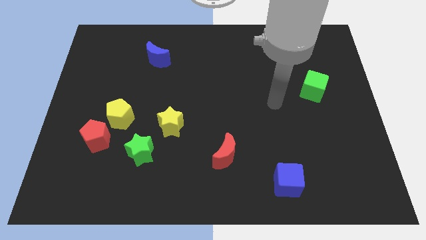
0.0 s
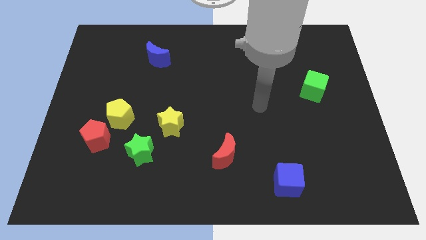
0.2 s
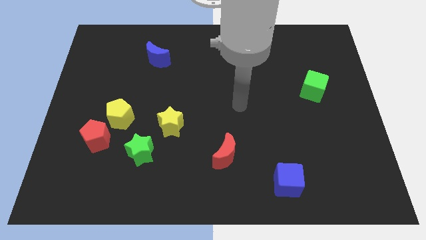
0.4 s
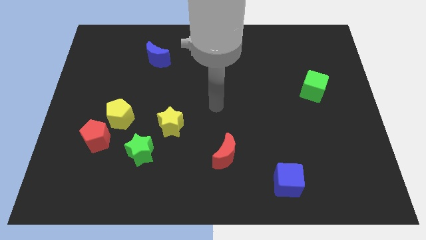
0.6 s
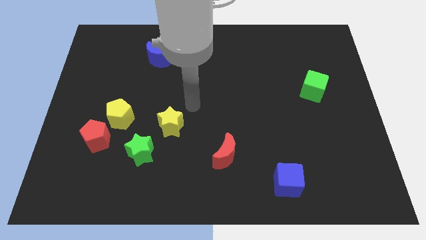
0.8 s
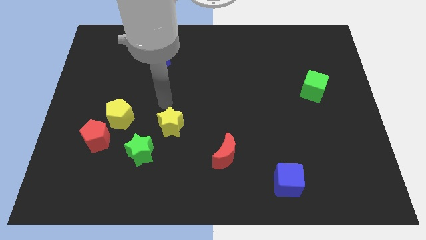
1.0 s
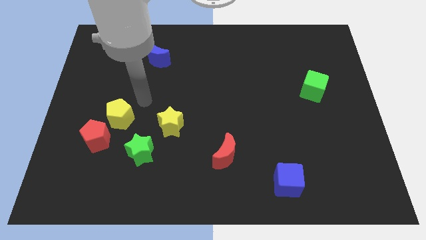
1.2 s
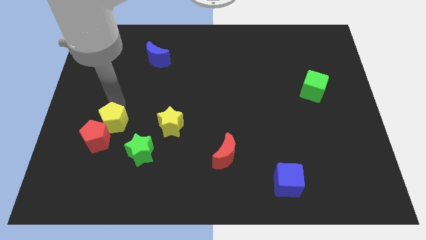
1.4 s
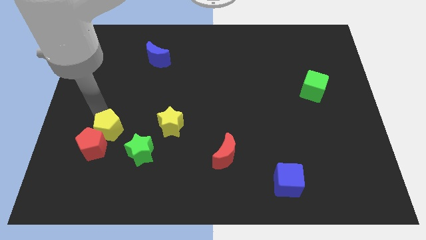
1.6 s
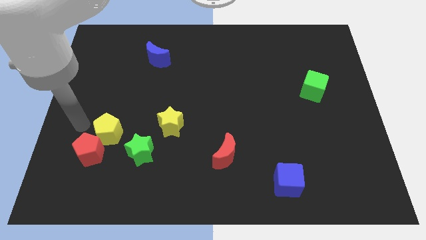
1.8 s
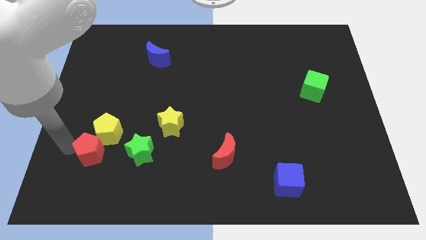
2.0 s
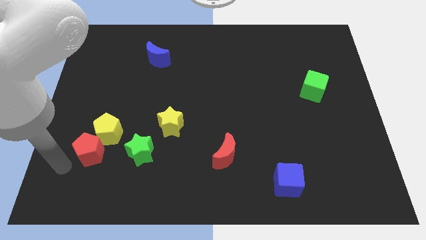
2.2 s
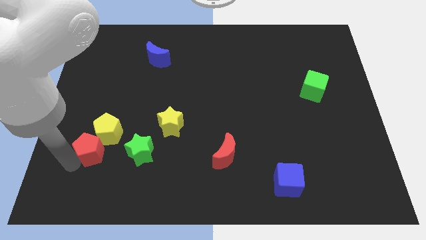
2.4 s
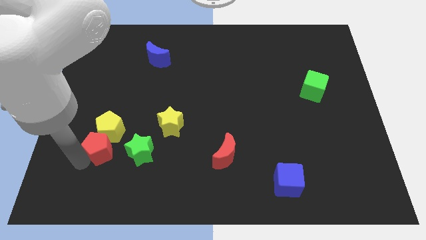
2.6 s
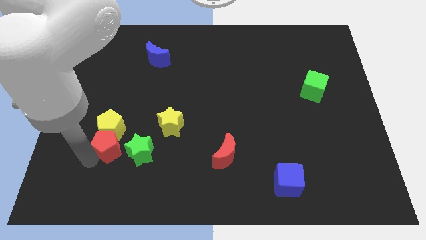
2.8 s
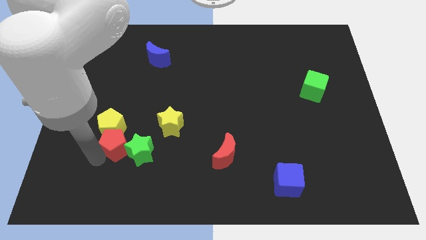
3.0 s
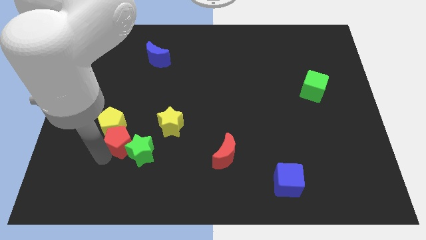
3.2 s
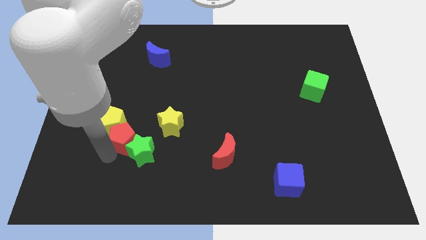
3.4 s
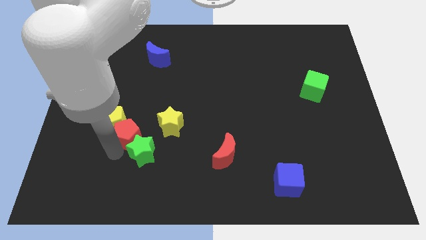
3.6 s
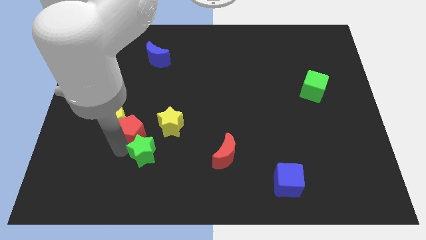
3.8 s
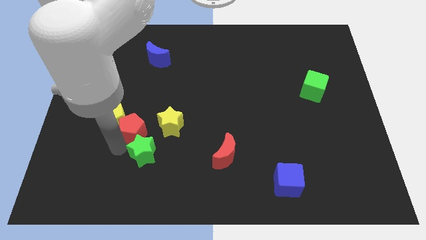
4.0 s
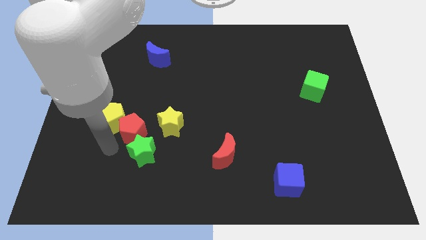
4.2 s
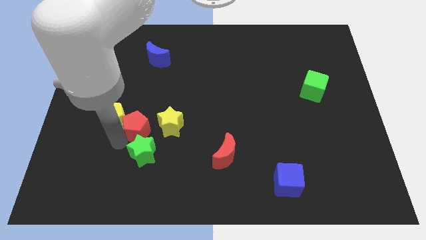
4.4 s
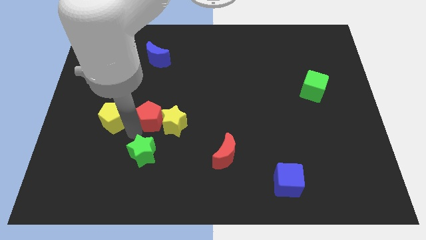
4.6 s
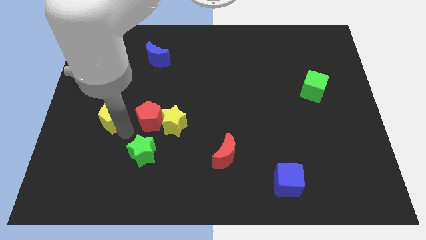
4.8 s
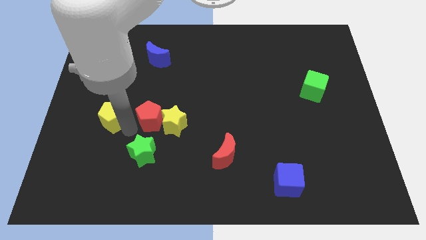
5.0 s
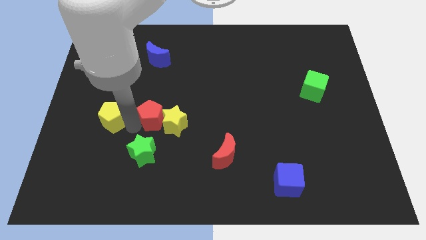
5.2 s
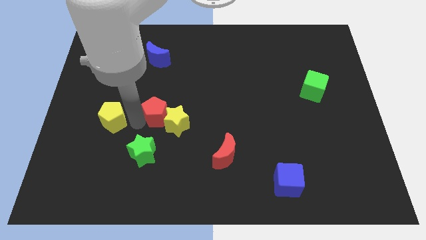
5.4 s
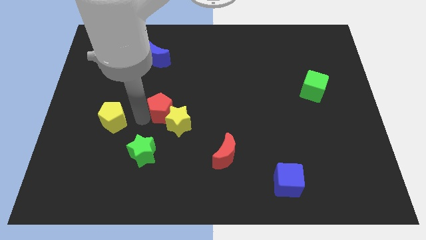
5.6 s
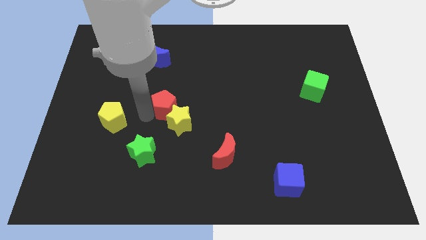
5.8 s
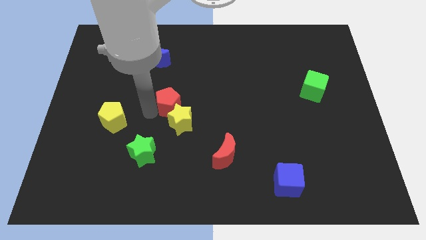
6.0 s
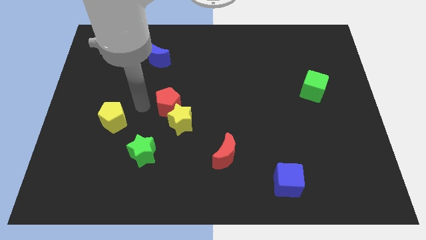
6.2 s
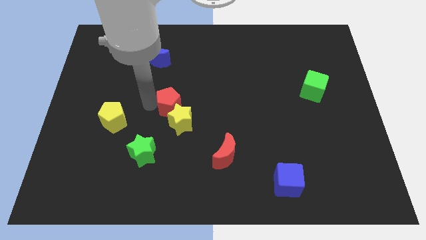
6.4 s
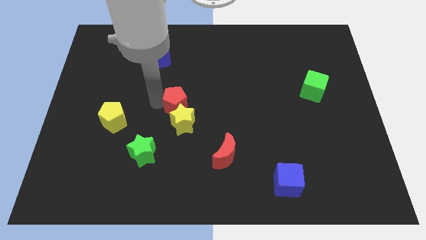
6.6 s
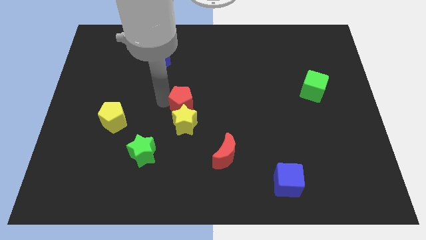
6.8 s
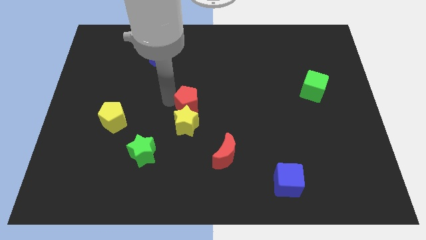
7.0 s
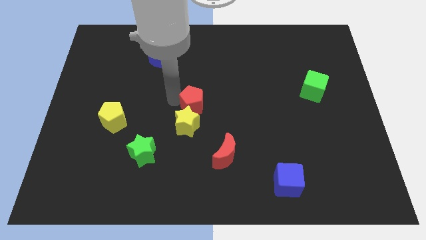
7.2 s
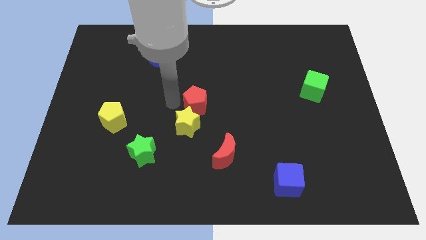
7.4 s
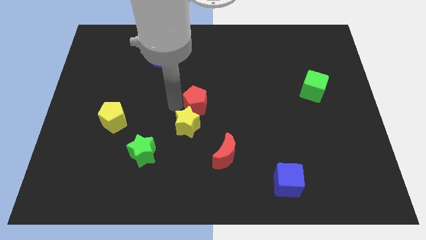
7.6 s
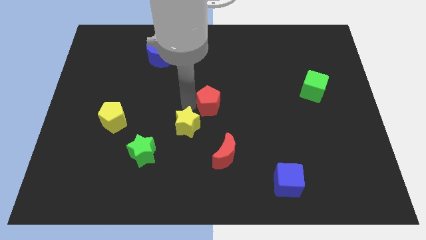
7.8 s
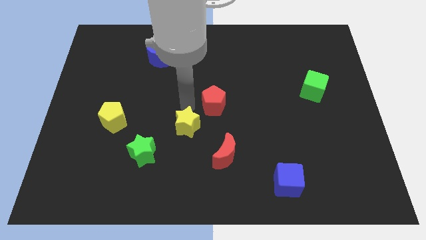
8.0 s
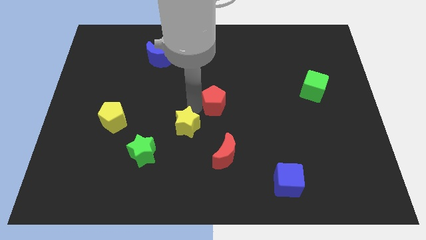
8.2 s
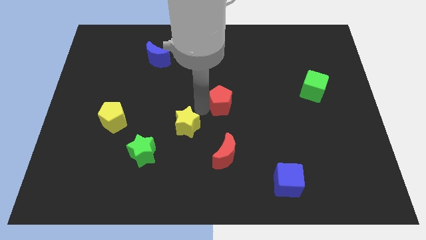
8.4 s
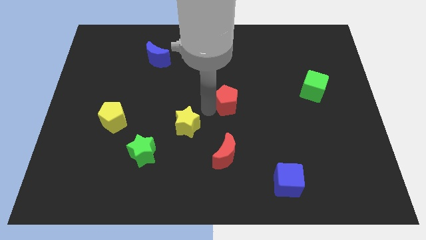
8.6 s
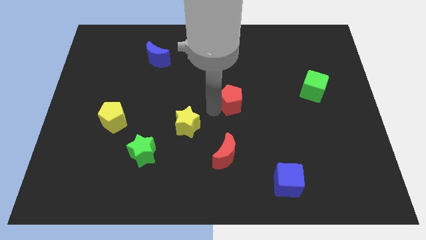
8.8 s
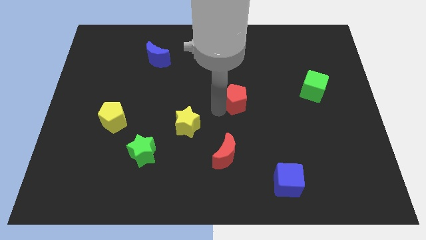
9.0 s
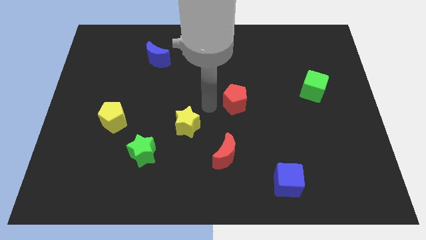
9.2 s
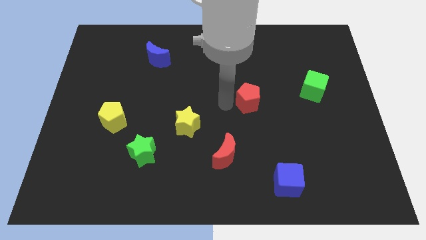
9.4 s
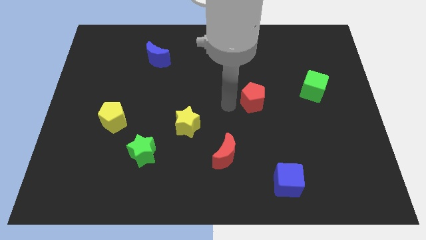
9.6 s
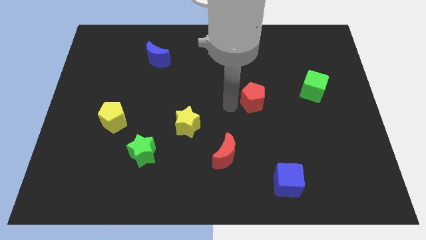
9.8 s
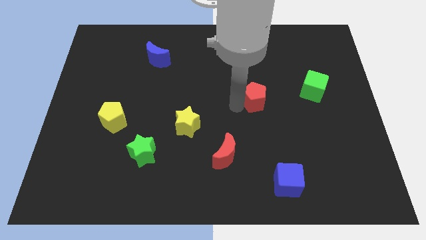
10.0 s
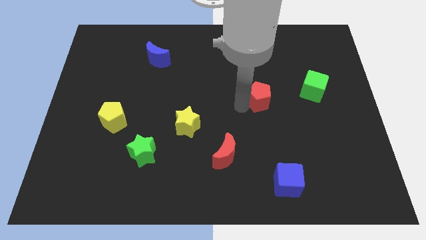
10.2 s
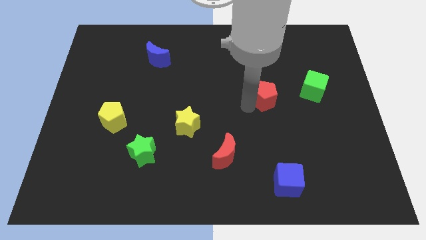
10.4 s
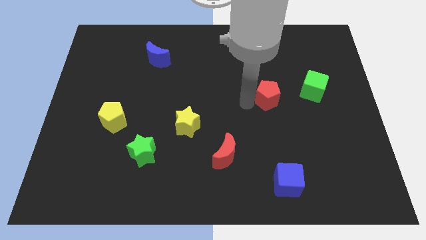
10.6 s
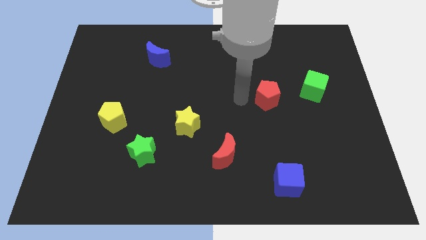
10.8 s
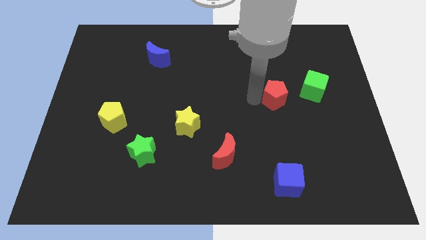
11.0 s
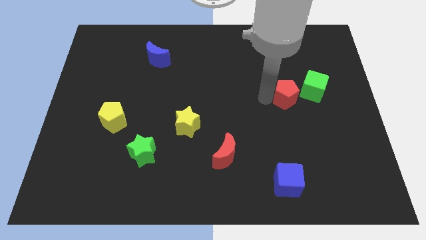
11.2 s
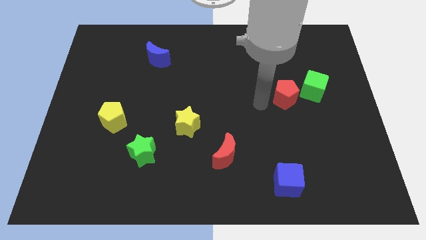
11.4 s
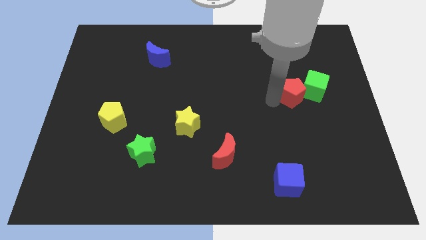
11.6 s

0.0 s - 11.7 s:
put the red pentagon towards the green cube

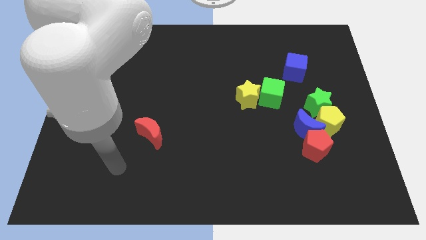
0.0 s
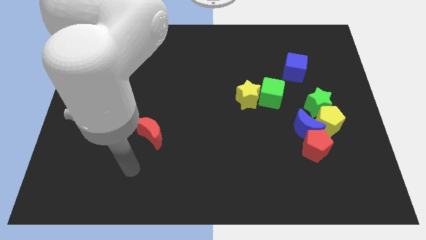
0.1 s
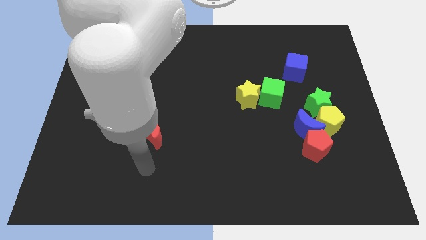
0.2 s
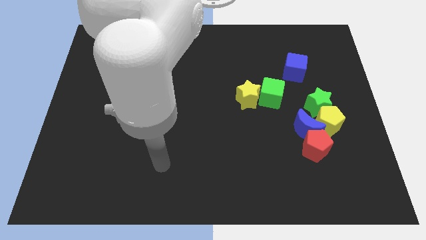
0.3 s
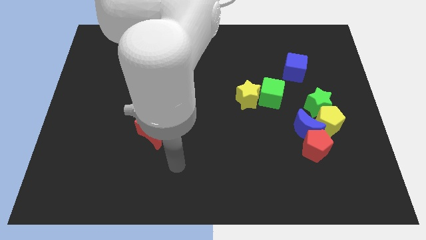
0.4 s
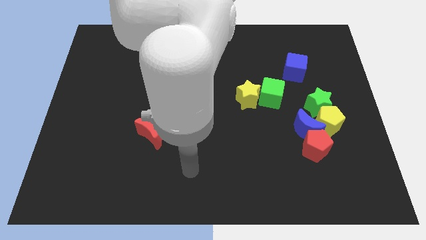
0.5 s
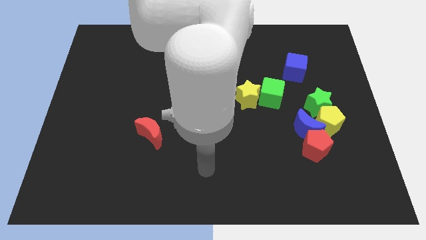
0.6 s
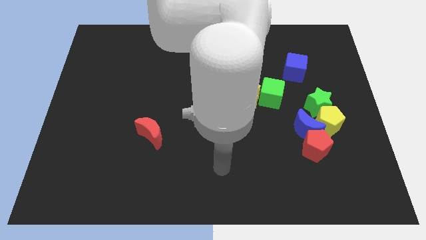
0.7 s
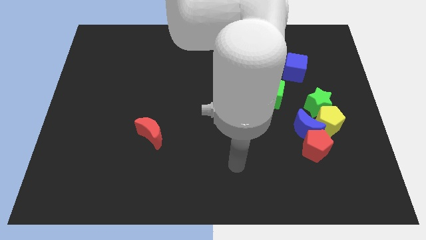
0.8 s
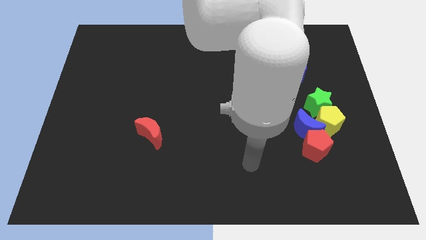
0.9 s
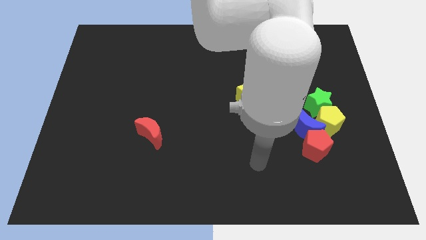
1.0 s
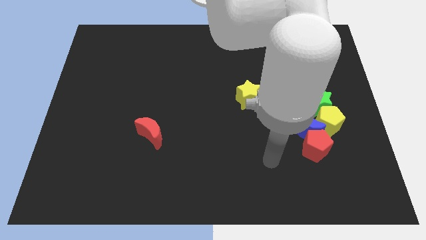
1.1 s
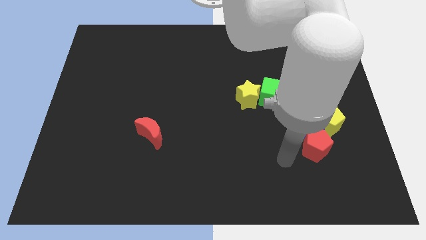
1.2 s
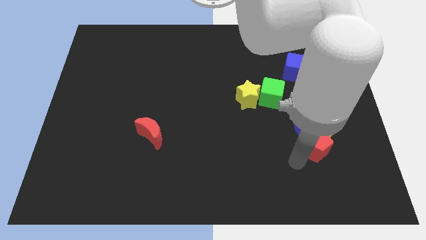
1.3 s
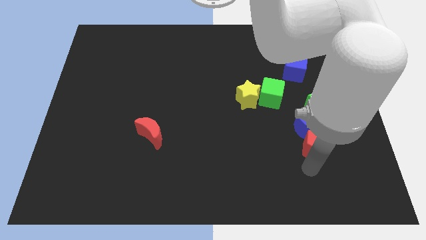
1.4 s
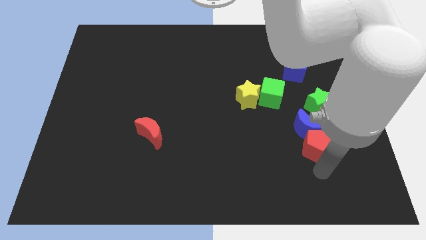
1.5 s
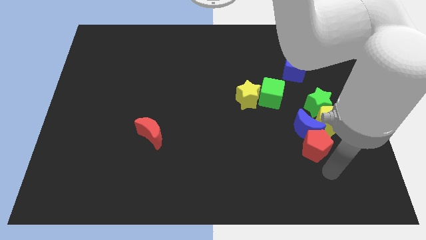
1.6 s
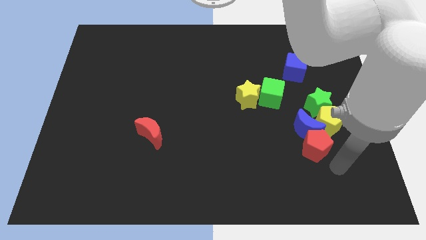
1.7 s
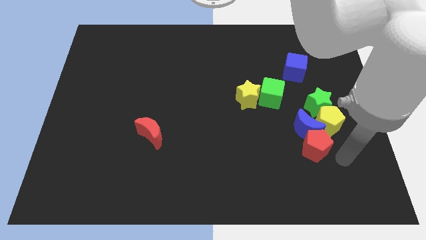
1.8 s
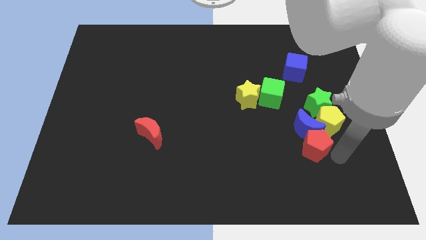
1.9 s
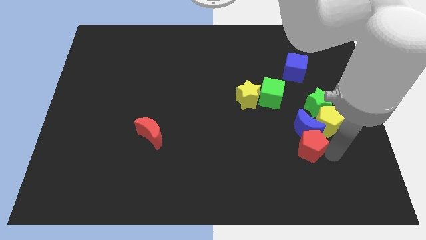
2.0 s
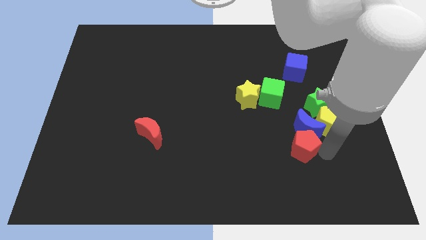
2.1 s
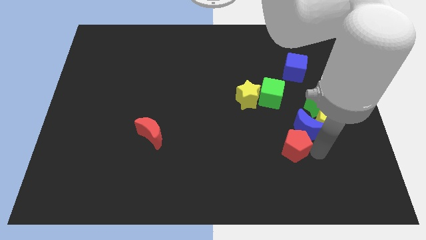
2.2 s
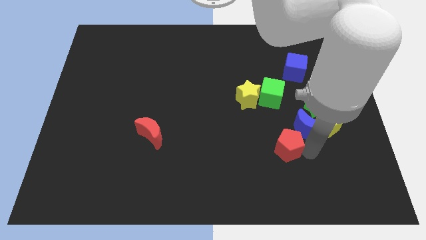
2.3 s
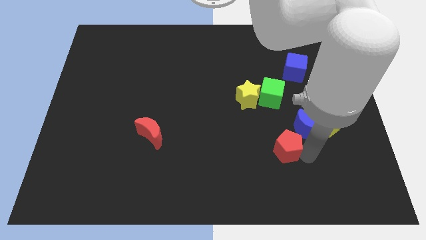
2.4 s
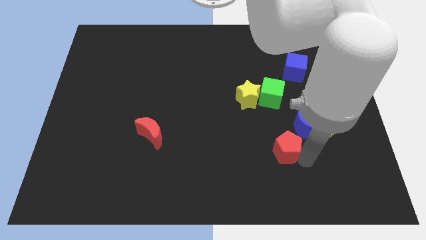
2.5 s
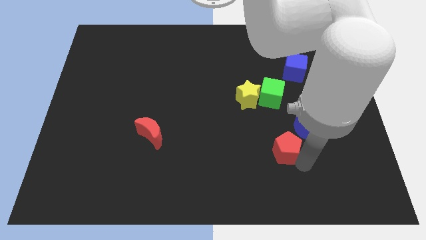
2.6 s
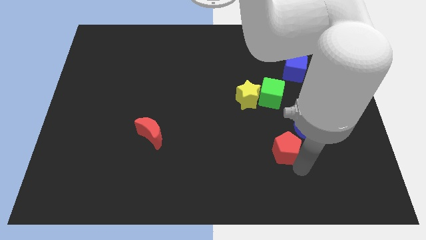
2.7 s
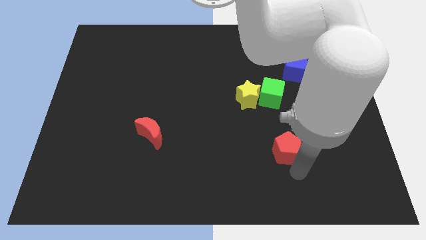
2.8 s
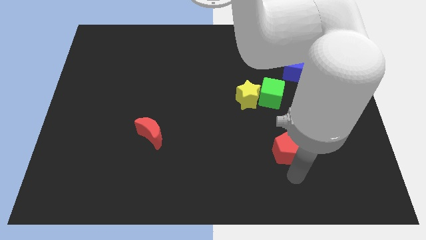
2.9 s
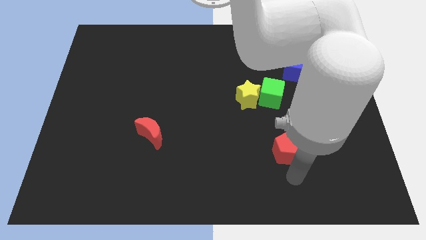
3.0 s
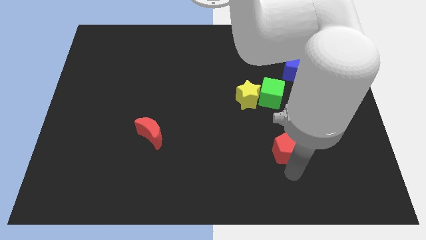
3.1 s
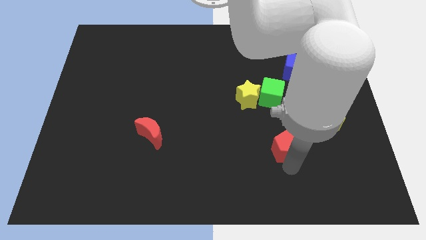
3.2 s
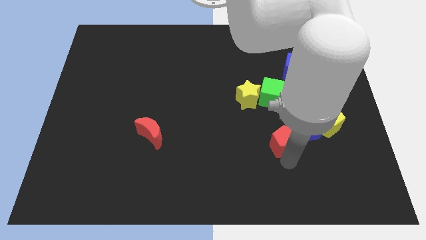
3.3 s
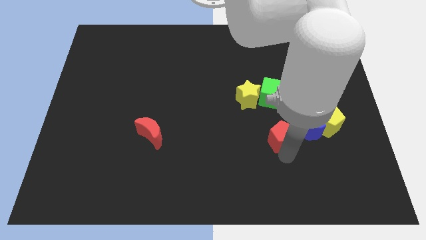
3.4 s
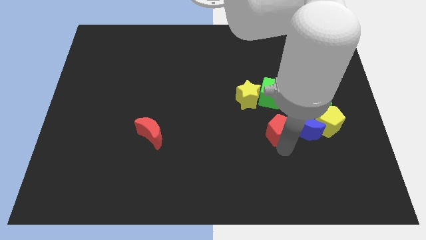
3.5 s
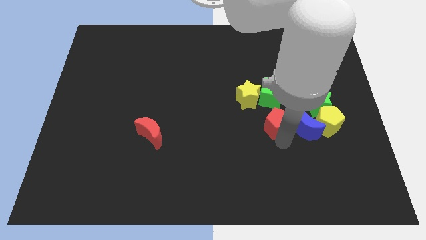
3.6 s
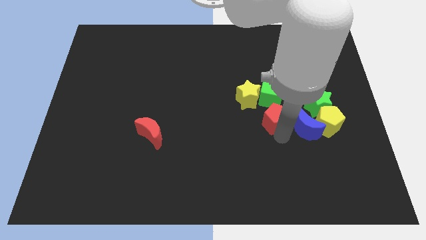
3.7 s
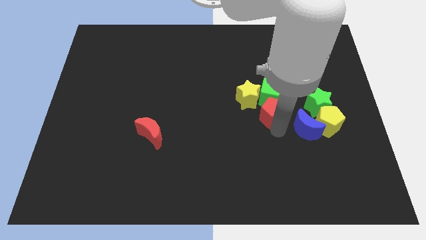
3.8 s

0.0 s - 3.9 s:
push the red pentagon to the green cube
